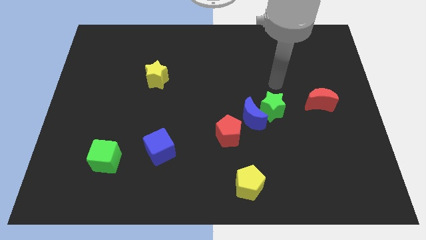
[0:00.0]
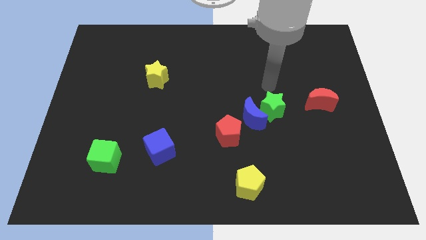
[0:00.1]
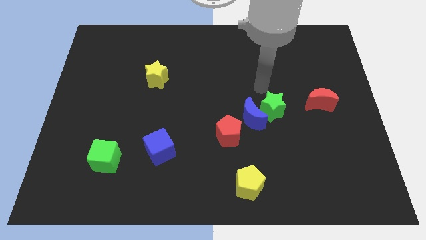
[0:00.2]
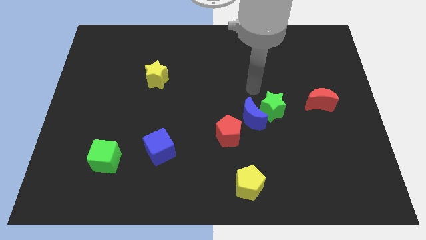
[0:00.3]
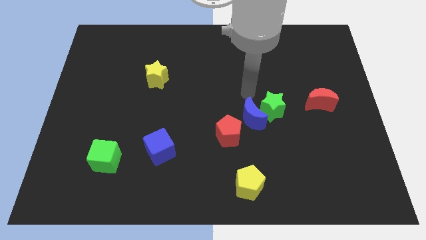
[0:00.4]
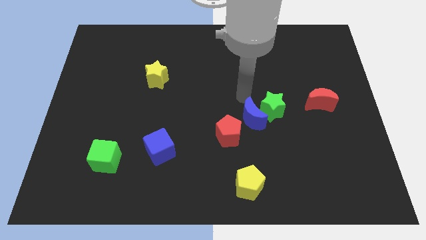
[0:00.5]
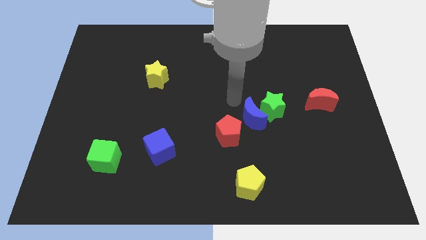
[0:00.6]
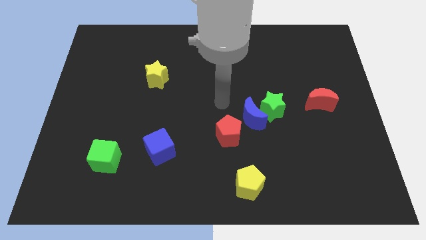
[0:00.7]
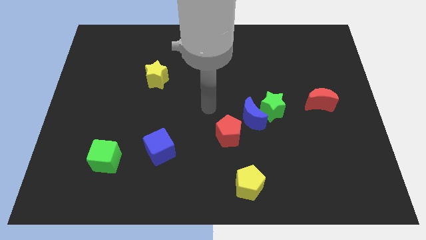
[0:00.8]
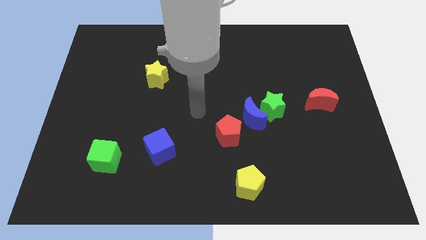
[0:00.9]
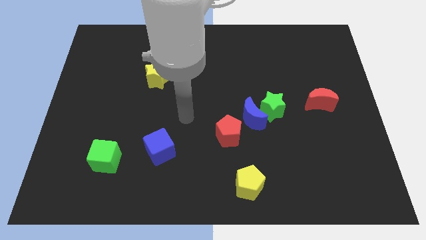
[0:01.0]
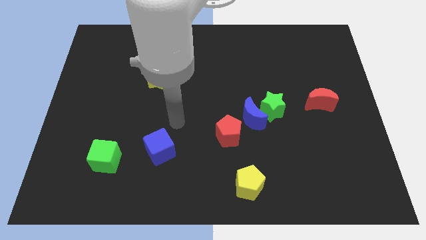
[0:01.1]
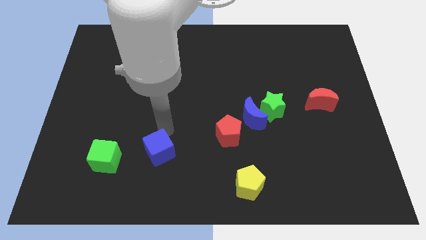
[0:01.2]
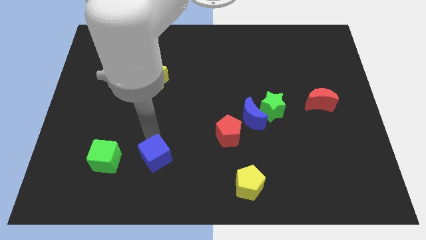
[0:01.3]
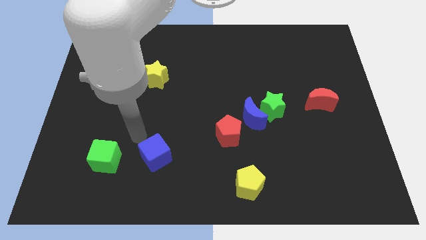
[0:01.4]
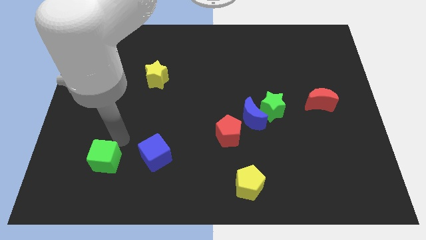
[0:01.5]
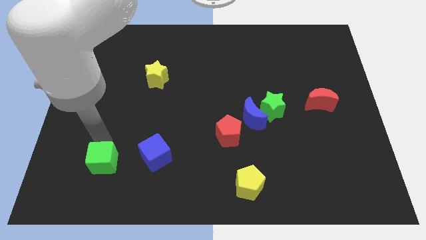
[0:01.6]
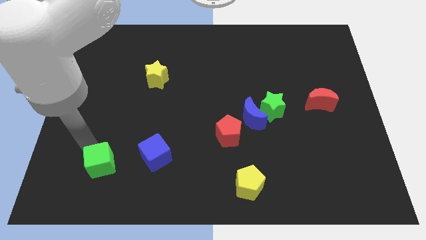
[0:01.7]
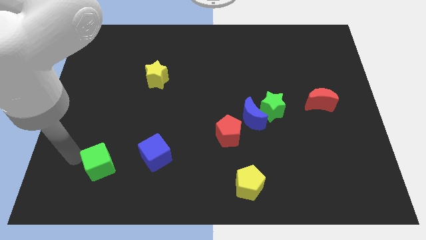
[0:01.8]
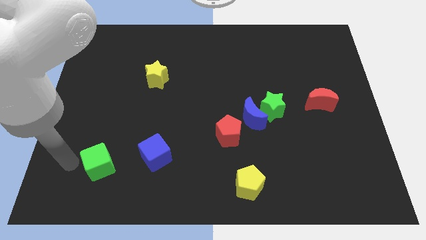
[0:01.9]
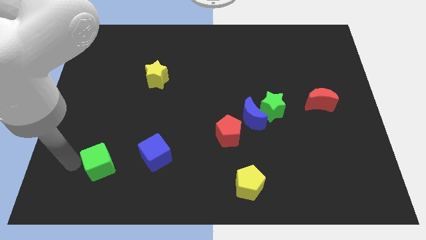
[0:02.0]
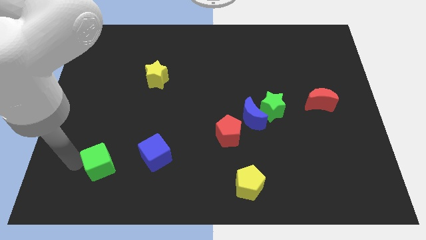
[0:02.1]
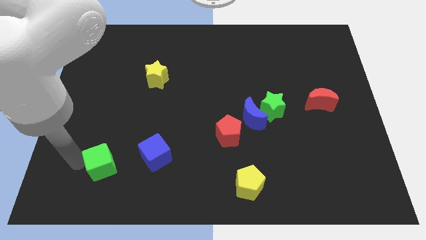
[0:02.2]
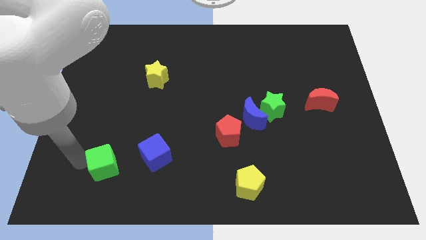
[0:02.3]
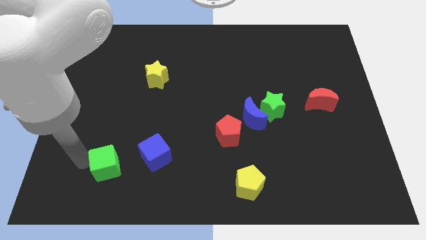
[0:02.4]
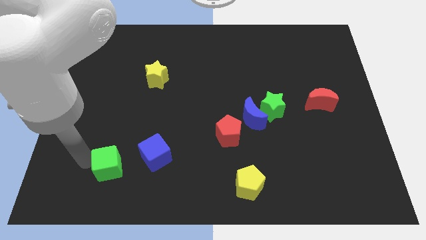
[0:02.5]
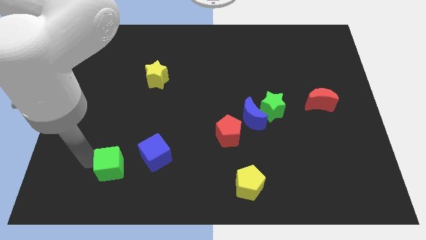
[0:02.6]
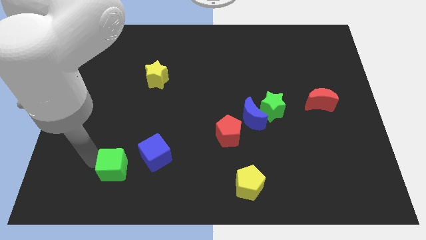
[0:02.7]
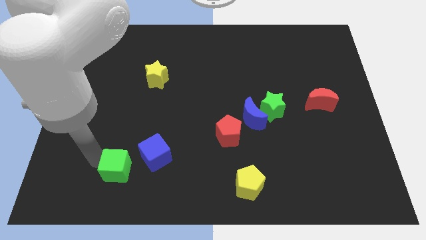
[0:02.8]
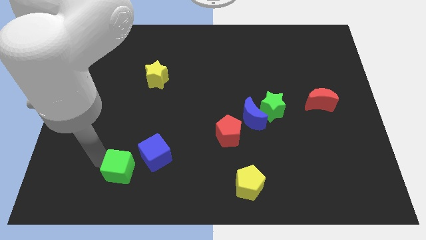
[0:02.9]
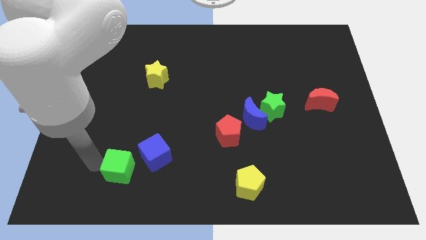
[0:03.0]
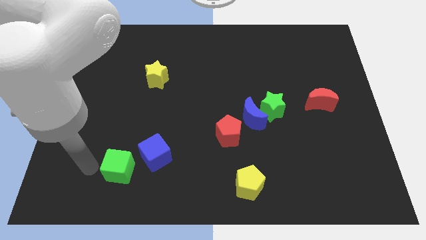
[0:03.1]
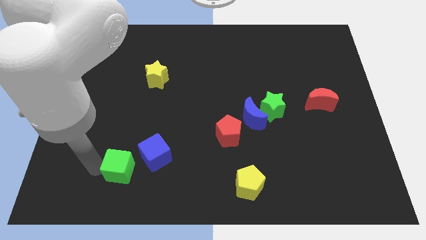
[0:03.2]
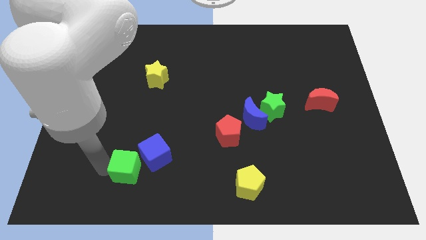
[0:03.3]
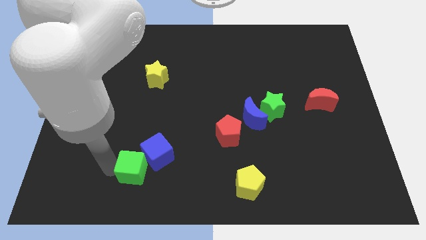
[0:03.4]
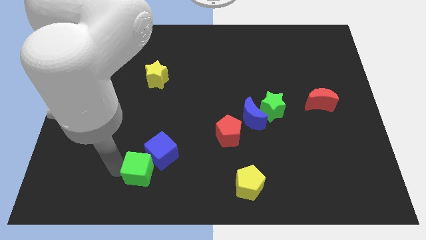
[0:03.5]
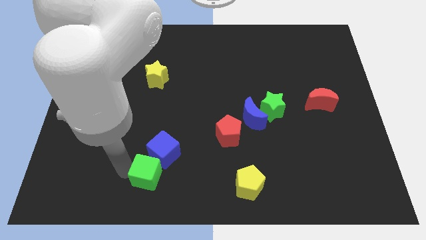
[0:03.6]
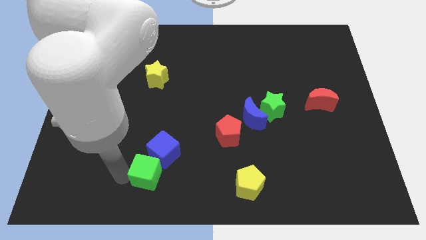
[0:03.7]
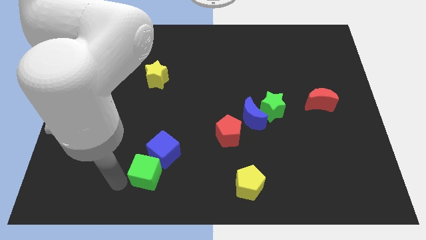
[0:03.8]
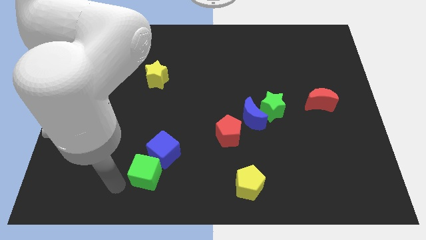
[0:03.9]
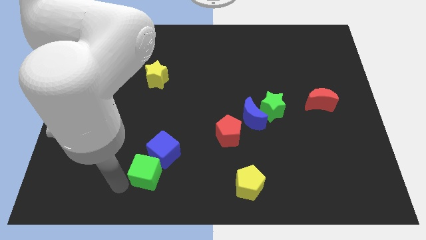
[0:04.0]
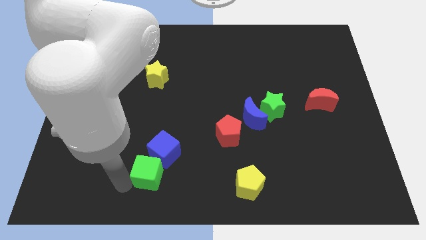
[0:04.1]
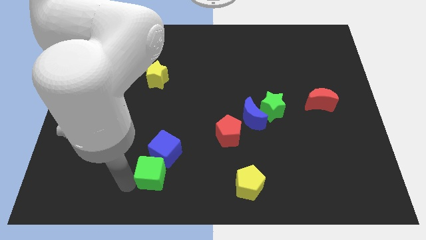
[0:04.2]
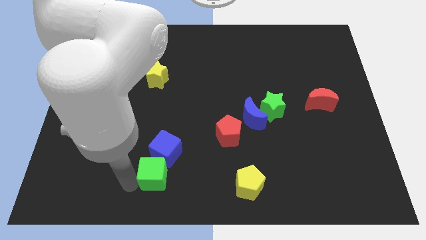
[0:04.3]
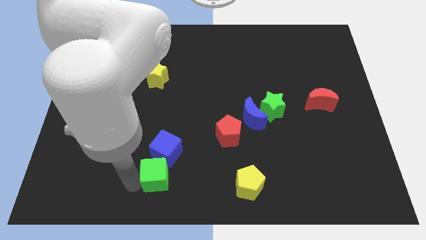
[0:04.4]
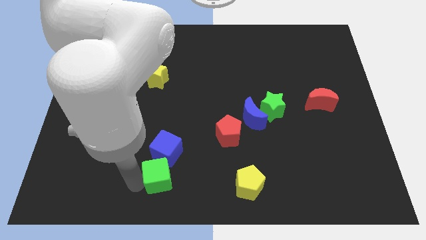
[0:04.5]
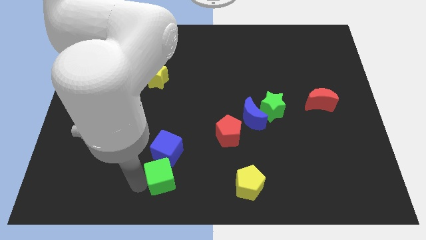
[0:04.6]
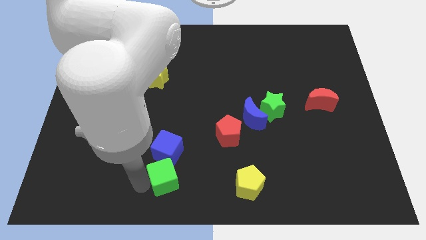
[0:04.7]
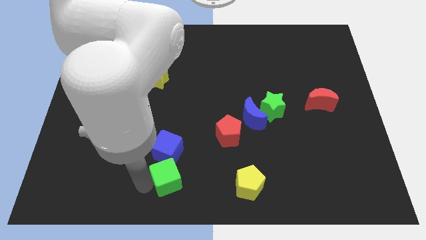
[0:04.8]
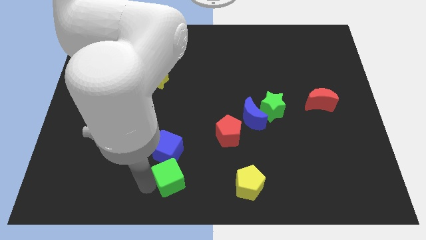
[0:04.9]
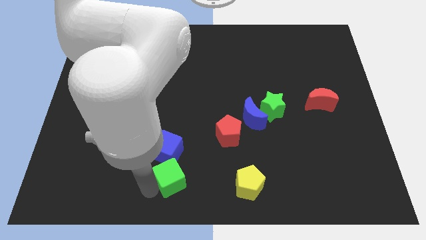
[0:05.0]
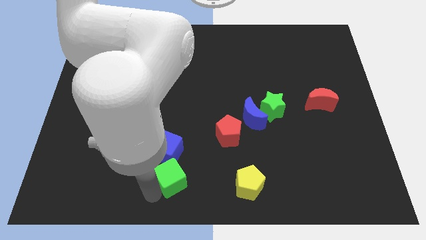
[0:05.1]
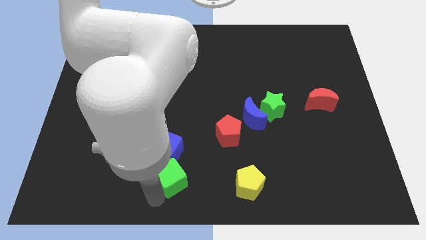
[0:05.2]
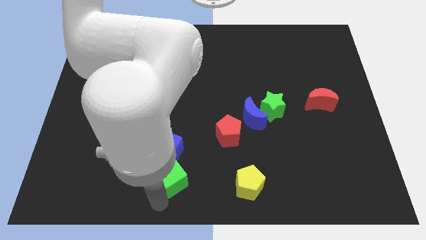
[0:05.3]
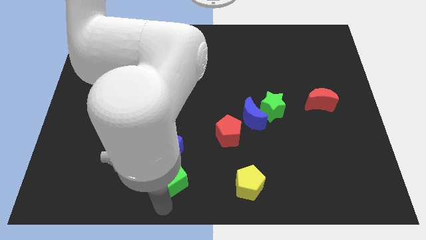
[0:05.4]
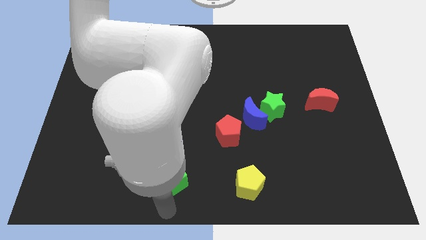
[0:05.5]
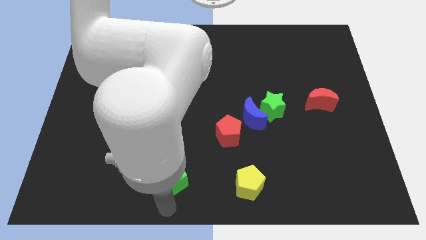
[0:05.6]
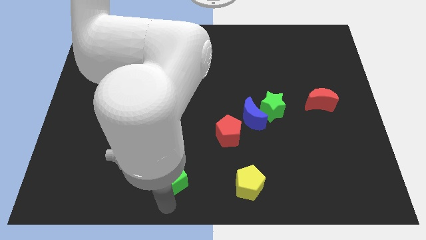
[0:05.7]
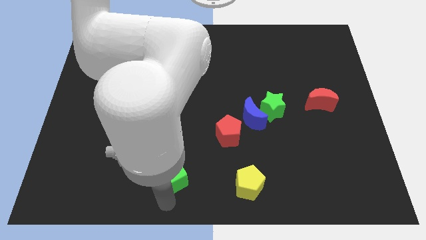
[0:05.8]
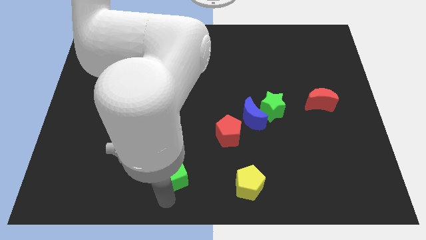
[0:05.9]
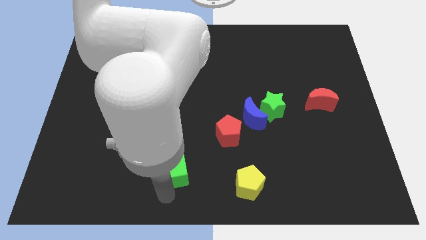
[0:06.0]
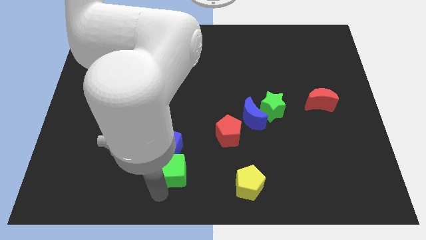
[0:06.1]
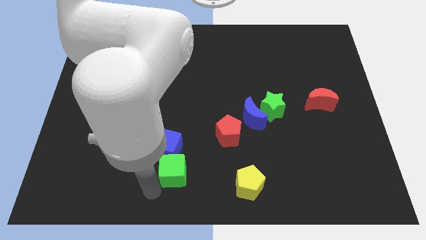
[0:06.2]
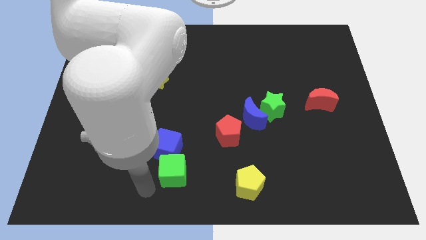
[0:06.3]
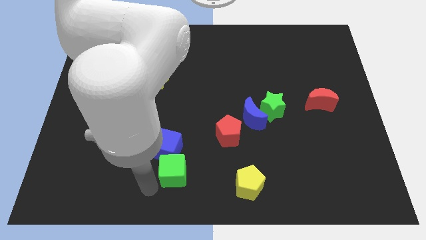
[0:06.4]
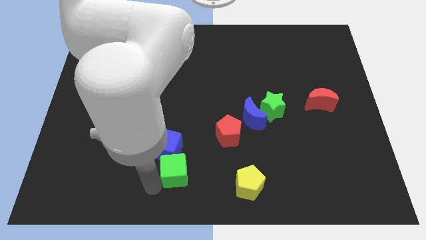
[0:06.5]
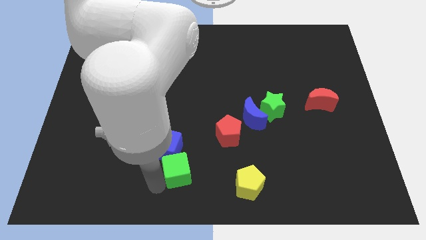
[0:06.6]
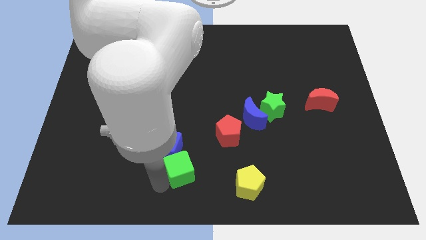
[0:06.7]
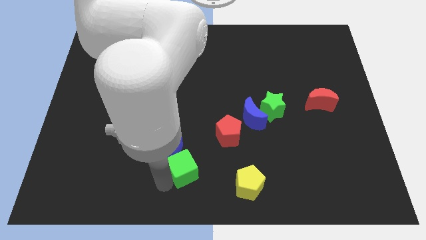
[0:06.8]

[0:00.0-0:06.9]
move the green cube diagonally down and to the left of the red pentagon
